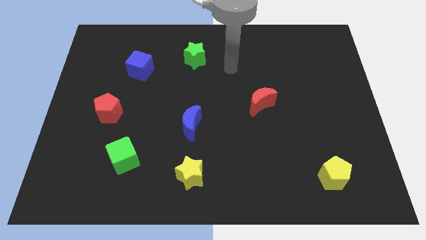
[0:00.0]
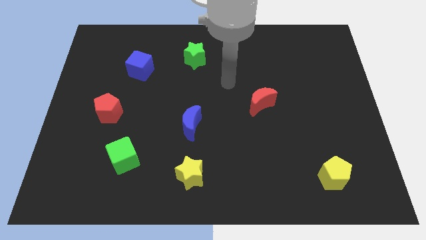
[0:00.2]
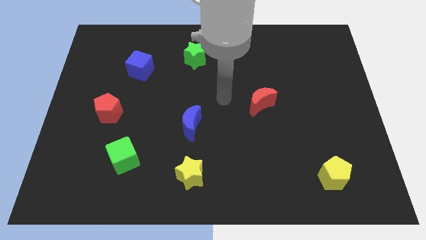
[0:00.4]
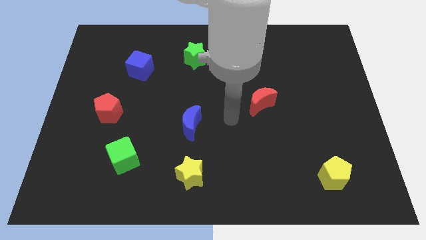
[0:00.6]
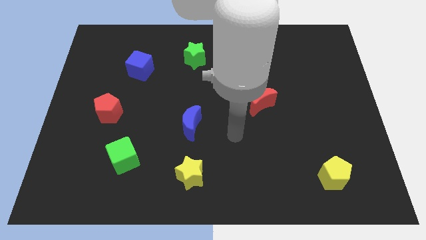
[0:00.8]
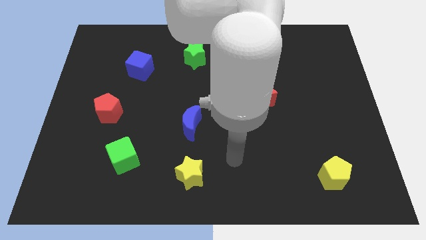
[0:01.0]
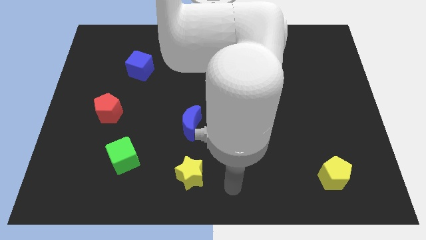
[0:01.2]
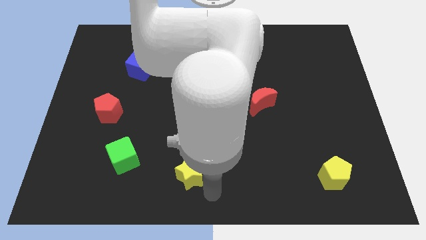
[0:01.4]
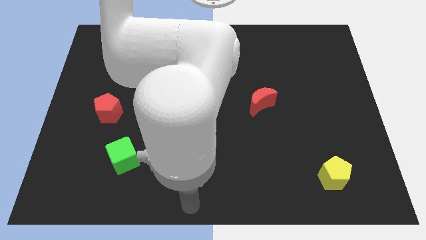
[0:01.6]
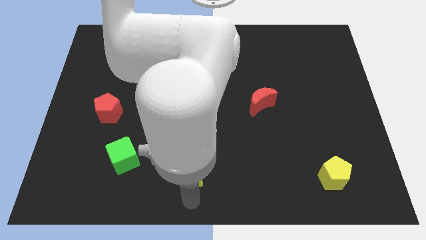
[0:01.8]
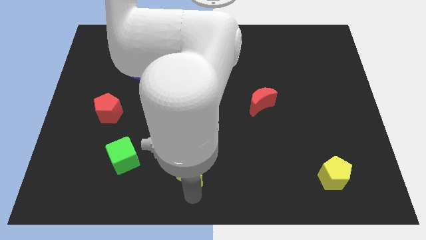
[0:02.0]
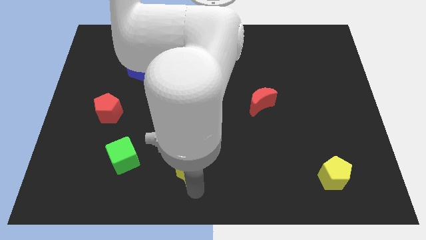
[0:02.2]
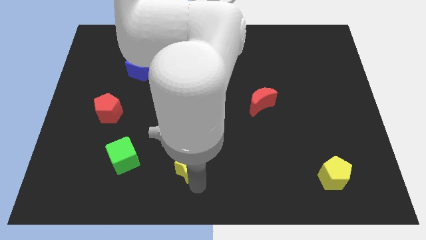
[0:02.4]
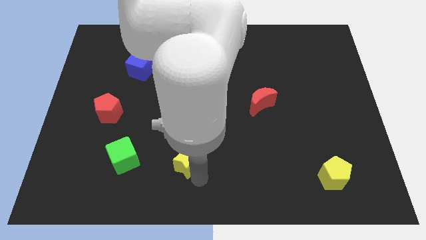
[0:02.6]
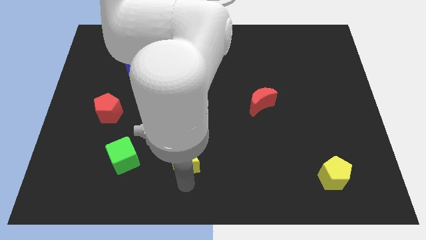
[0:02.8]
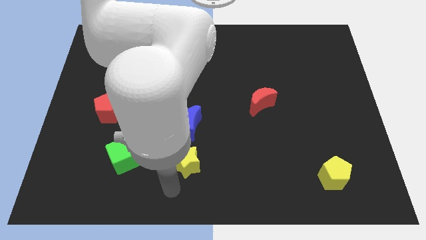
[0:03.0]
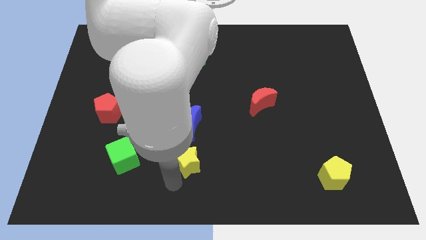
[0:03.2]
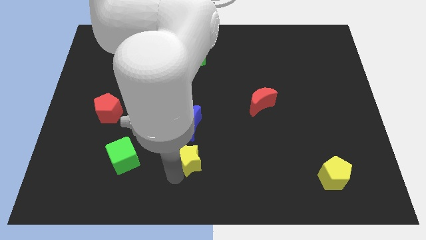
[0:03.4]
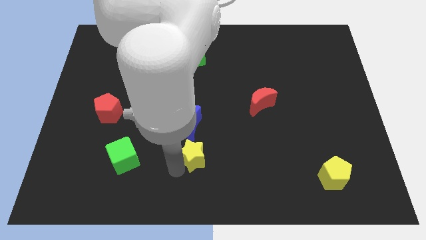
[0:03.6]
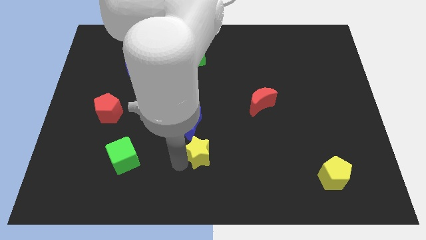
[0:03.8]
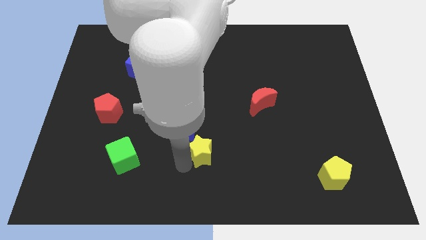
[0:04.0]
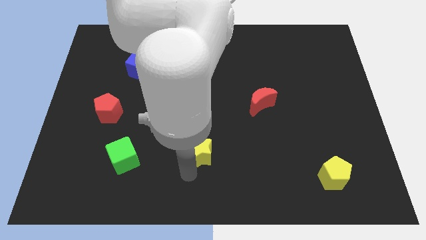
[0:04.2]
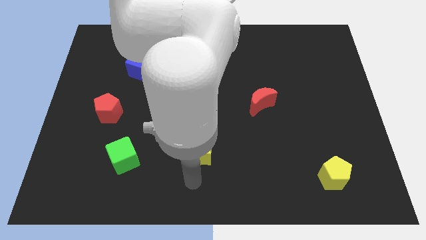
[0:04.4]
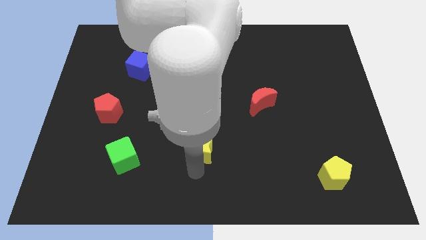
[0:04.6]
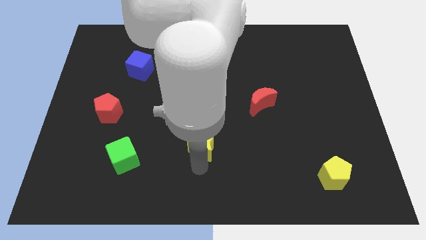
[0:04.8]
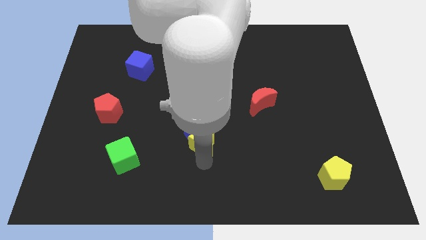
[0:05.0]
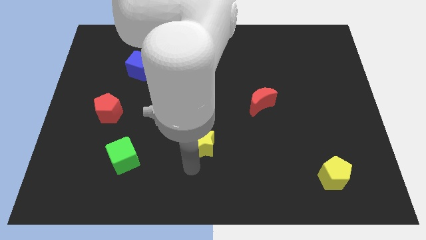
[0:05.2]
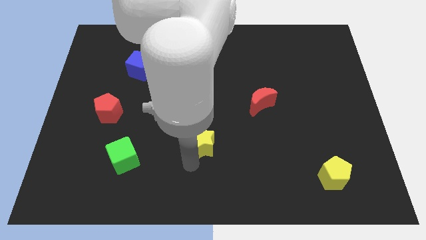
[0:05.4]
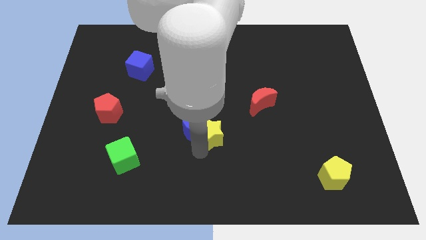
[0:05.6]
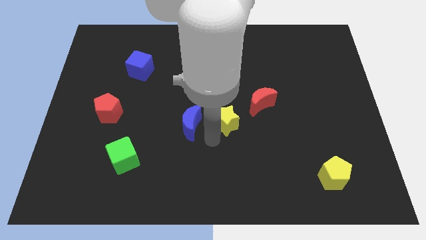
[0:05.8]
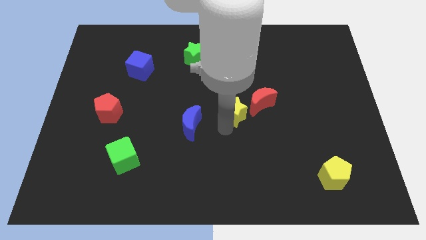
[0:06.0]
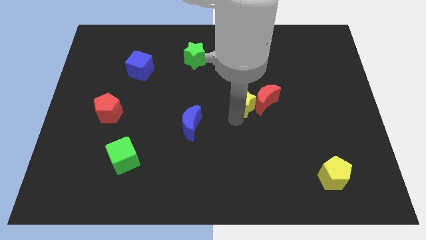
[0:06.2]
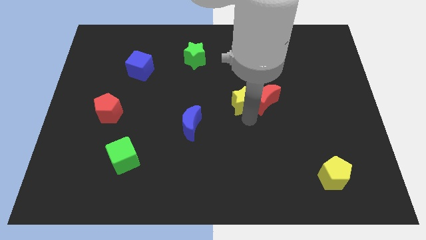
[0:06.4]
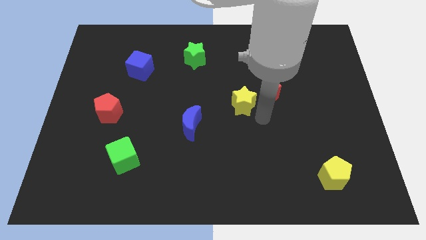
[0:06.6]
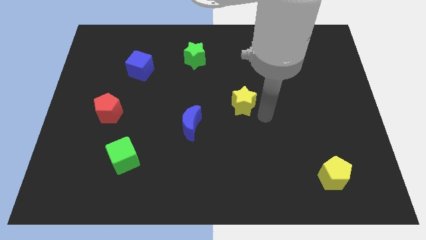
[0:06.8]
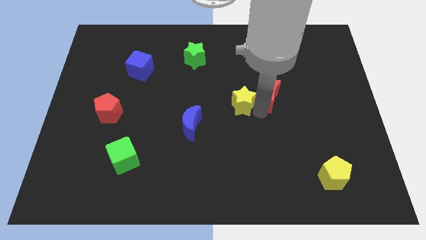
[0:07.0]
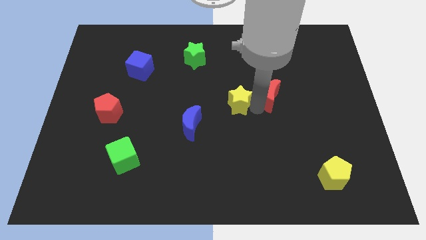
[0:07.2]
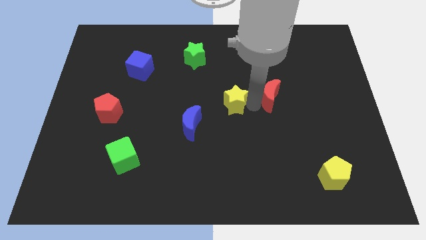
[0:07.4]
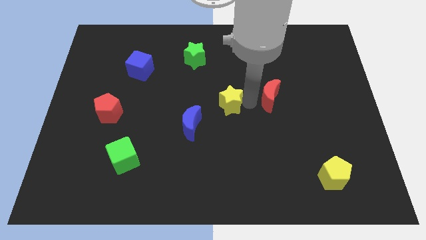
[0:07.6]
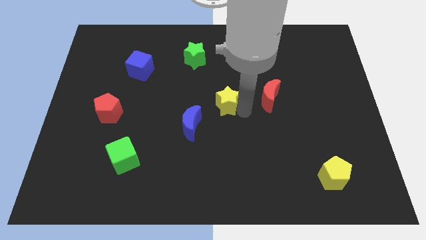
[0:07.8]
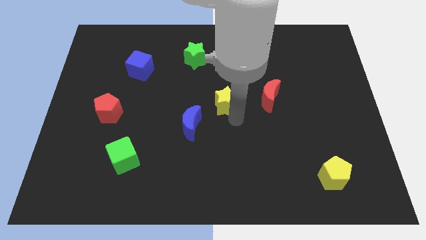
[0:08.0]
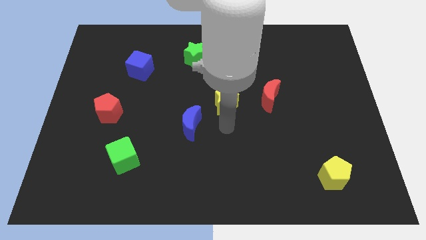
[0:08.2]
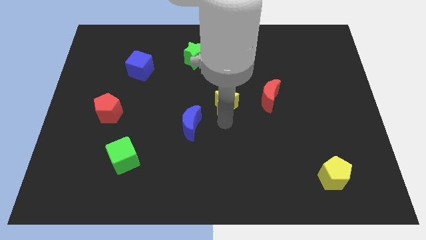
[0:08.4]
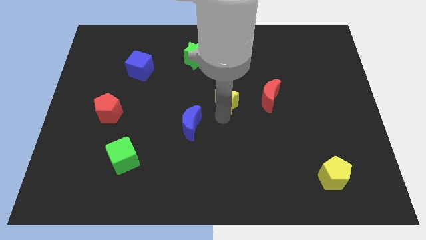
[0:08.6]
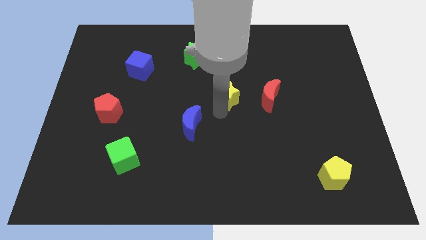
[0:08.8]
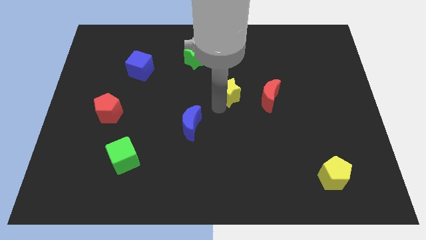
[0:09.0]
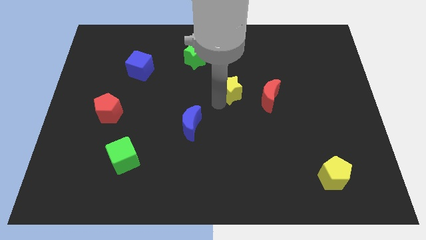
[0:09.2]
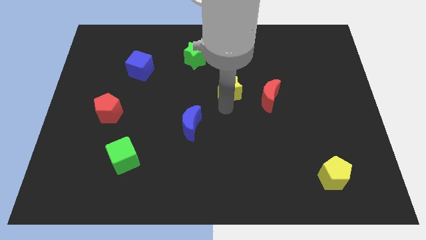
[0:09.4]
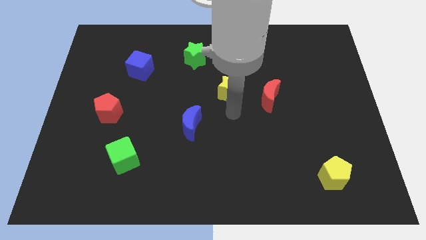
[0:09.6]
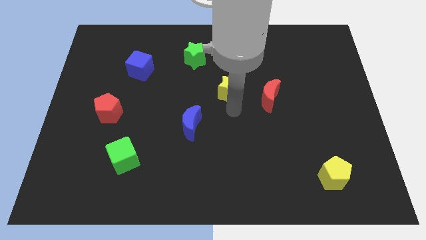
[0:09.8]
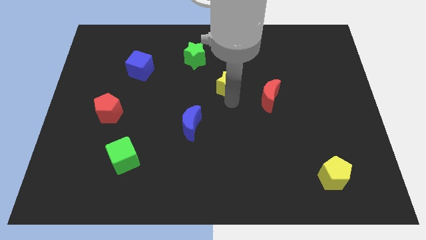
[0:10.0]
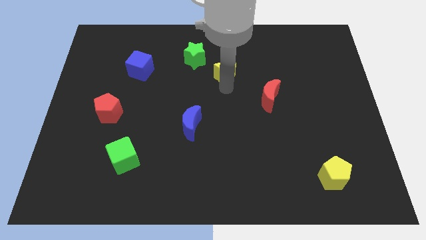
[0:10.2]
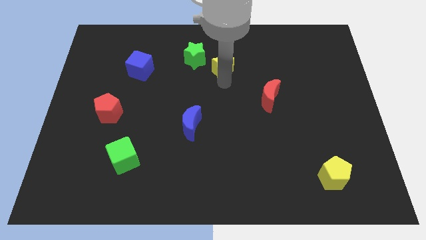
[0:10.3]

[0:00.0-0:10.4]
push the yellow star just right of the green star

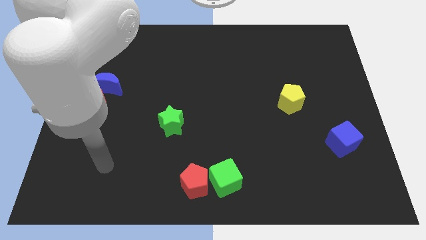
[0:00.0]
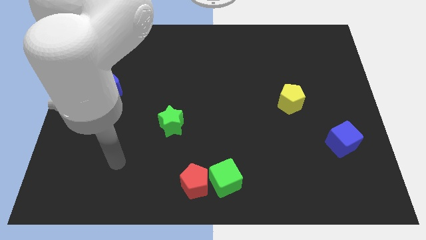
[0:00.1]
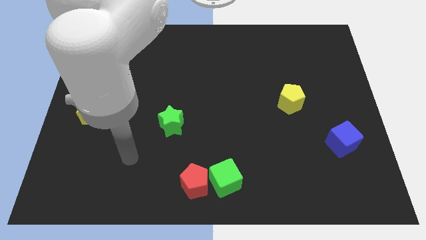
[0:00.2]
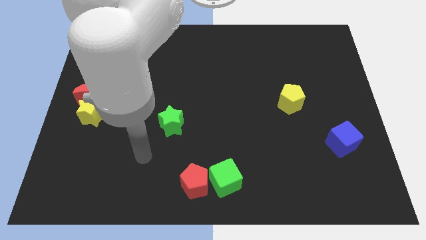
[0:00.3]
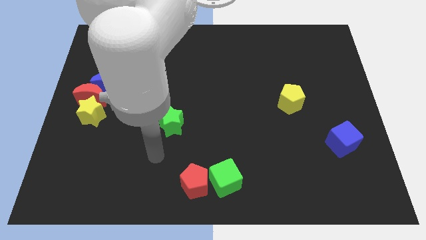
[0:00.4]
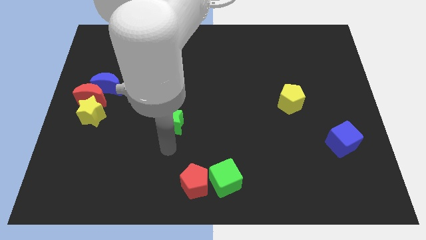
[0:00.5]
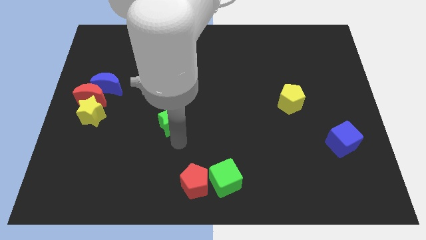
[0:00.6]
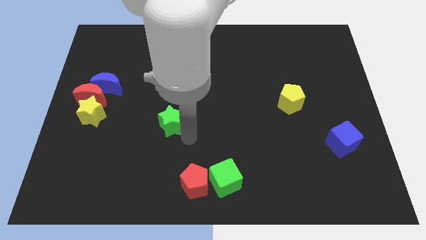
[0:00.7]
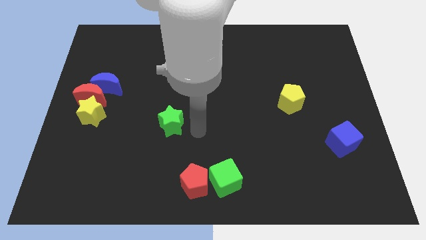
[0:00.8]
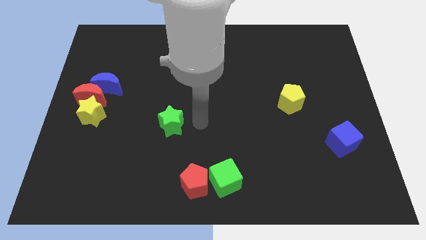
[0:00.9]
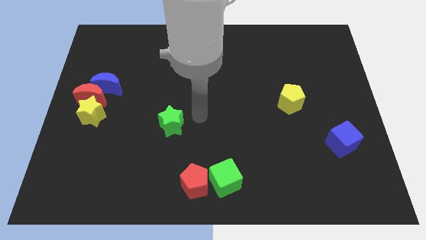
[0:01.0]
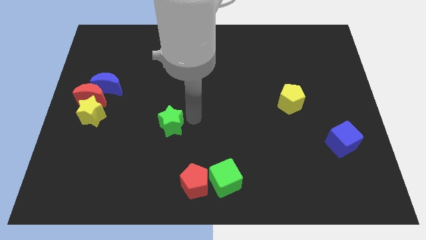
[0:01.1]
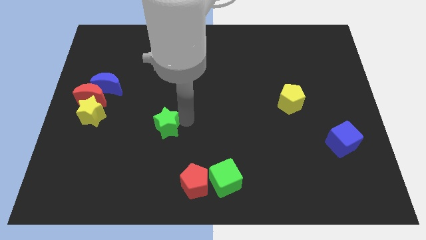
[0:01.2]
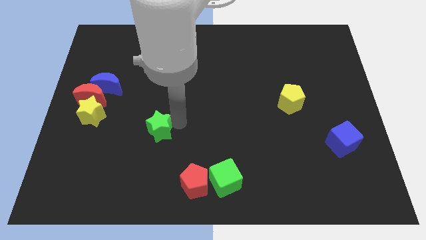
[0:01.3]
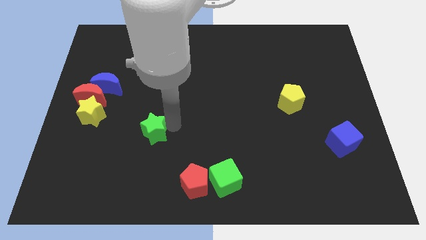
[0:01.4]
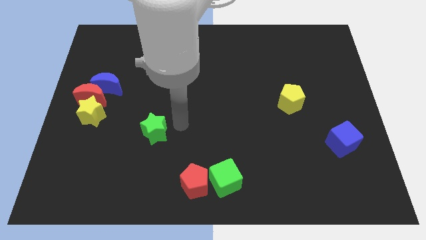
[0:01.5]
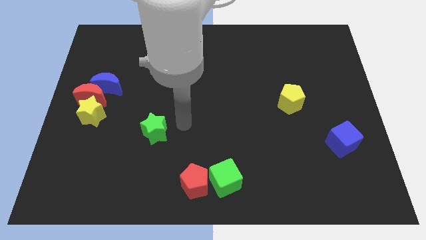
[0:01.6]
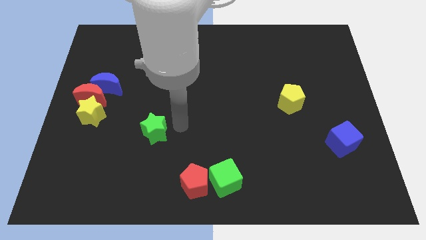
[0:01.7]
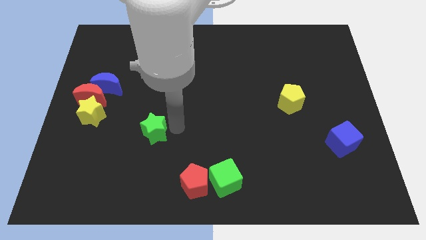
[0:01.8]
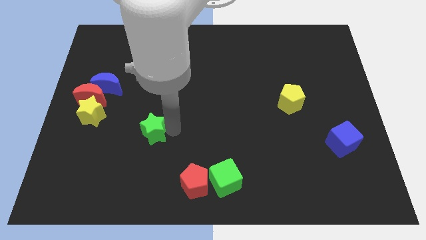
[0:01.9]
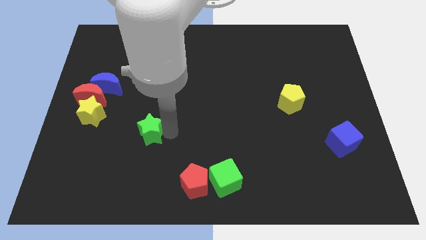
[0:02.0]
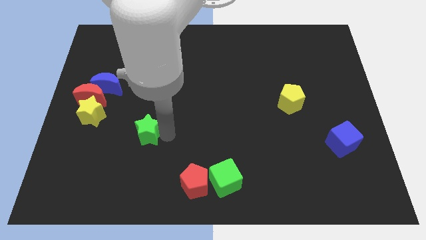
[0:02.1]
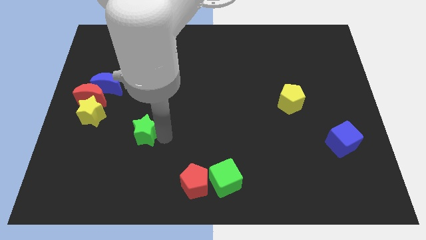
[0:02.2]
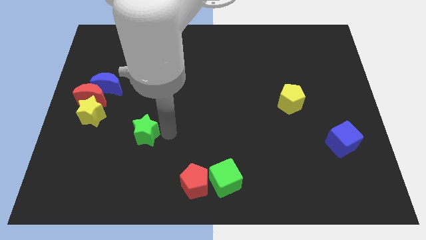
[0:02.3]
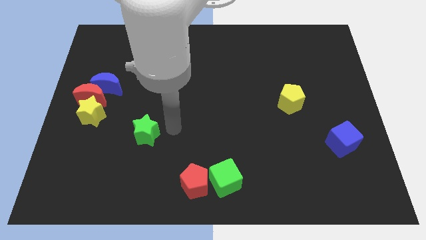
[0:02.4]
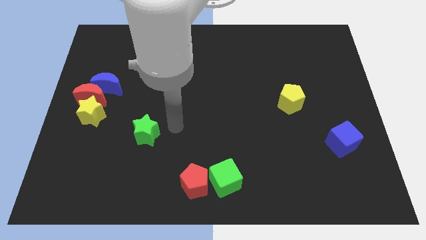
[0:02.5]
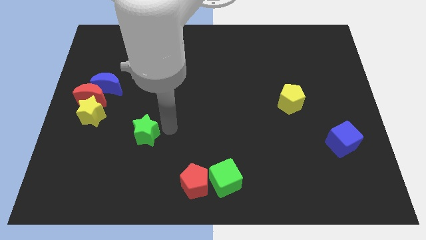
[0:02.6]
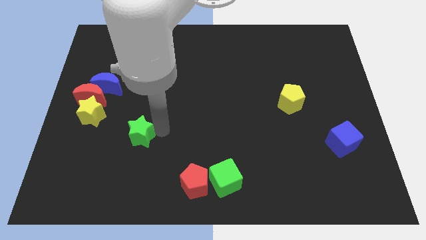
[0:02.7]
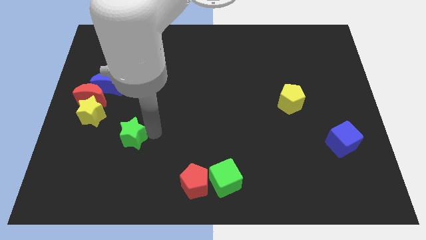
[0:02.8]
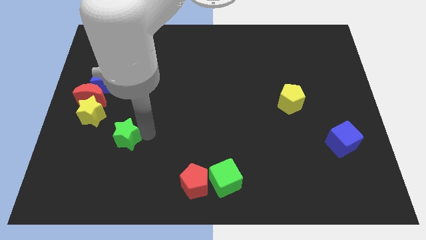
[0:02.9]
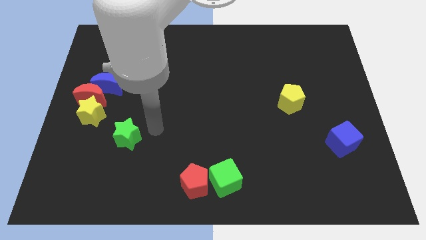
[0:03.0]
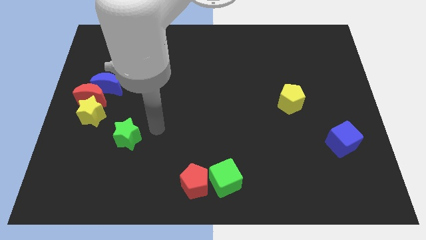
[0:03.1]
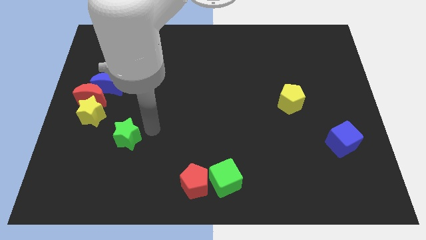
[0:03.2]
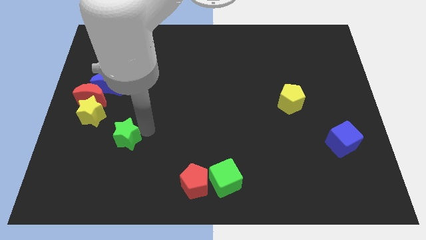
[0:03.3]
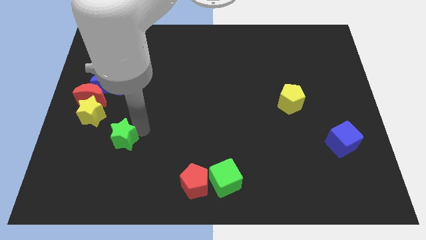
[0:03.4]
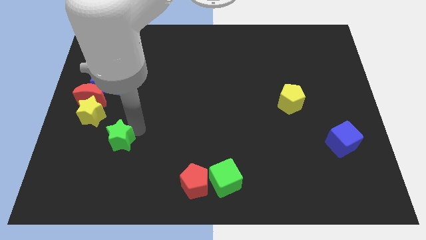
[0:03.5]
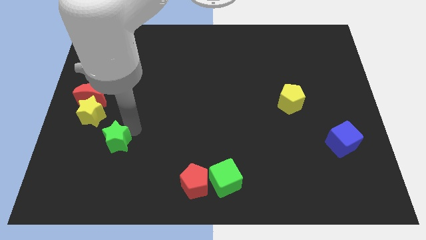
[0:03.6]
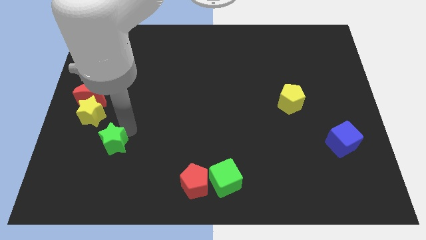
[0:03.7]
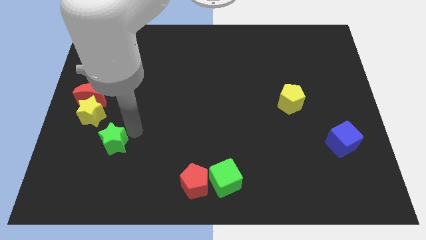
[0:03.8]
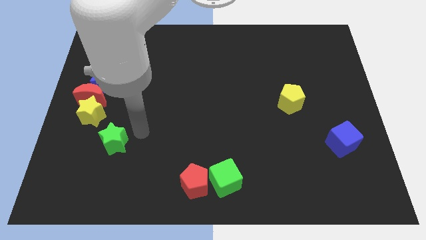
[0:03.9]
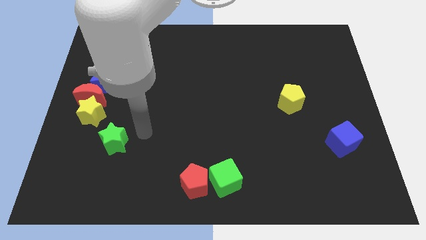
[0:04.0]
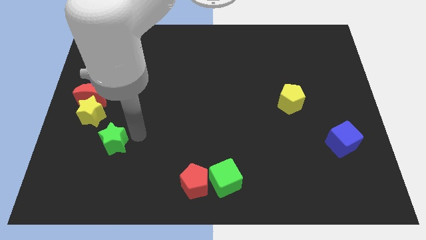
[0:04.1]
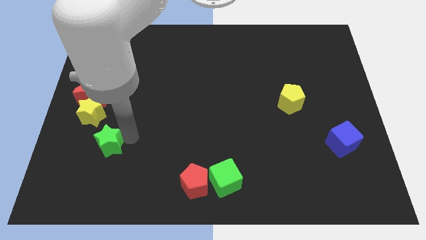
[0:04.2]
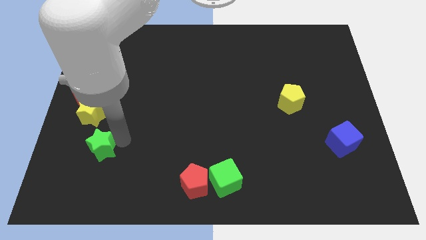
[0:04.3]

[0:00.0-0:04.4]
move the green star below the yellow star
